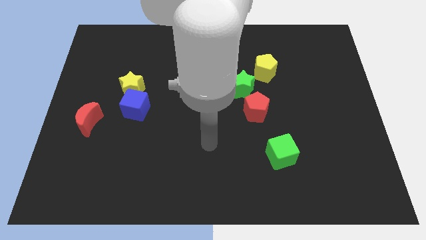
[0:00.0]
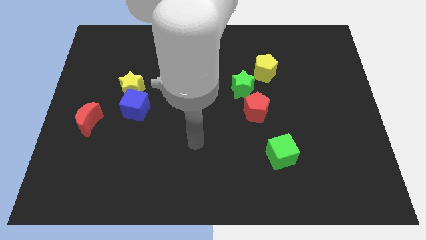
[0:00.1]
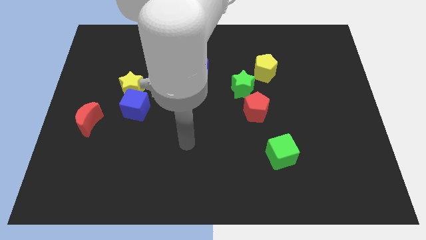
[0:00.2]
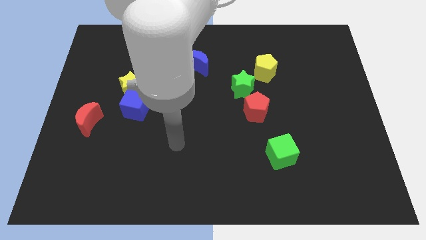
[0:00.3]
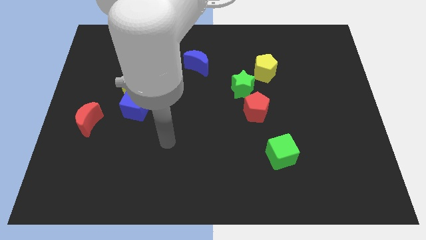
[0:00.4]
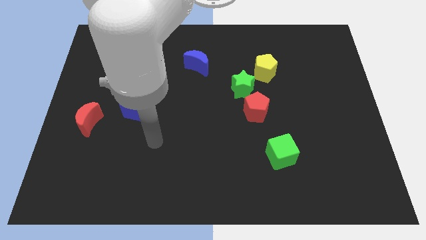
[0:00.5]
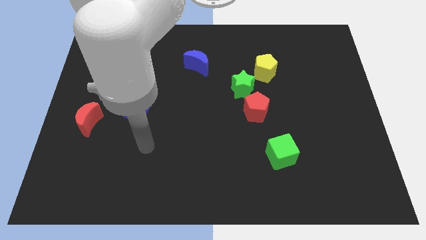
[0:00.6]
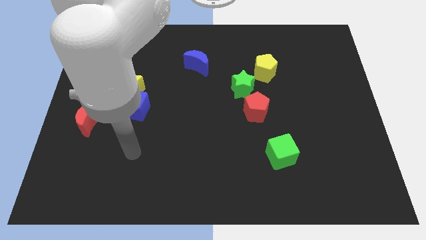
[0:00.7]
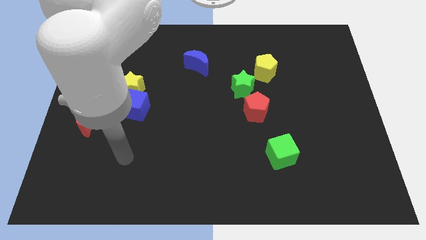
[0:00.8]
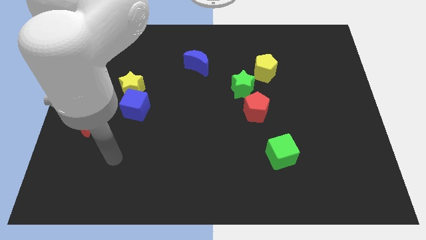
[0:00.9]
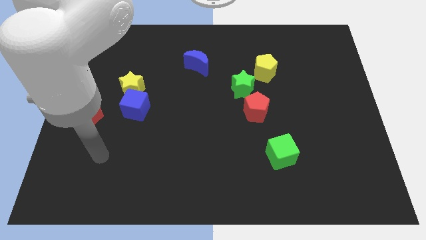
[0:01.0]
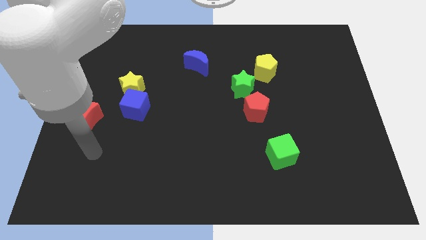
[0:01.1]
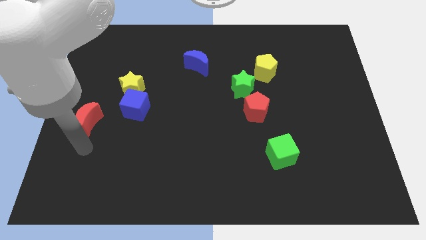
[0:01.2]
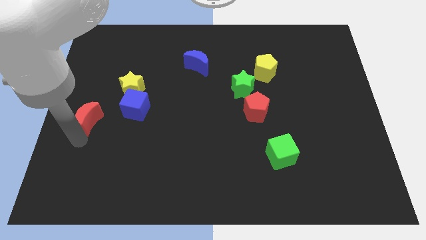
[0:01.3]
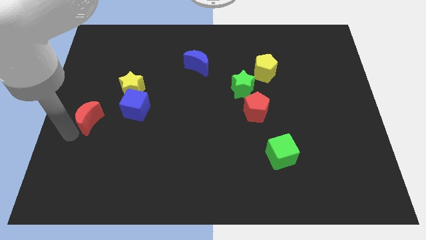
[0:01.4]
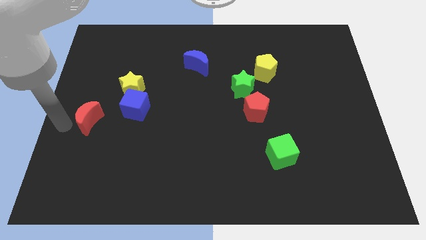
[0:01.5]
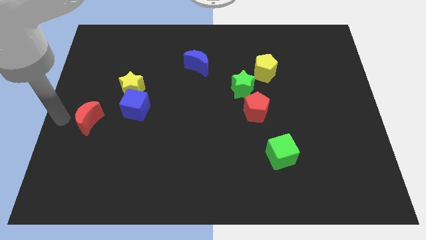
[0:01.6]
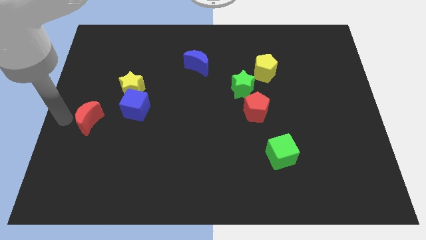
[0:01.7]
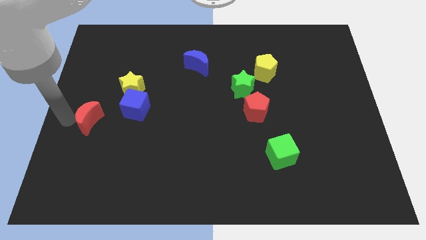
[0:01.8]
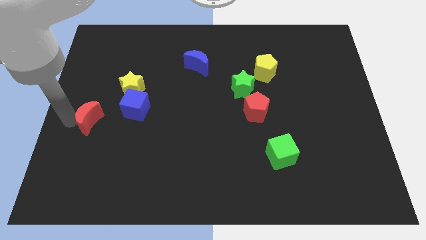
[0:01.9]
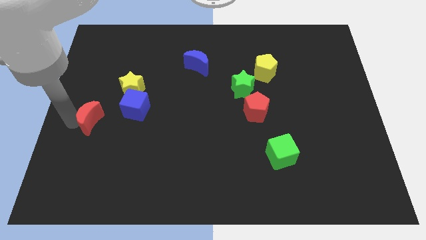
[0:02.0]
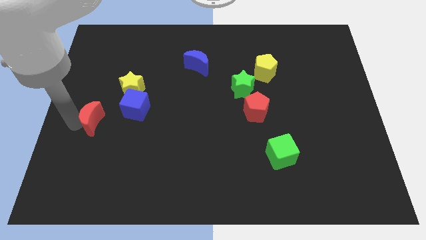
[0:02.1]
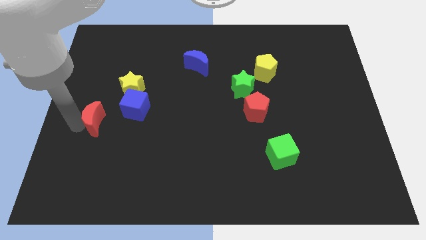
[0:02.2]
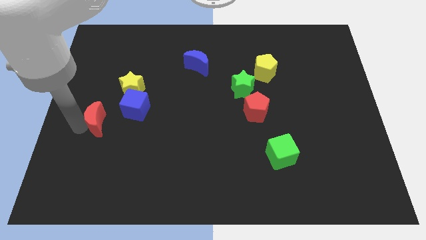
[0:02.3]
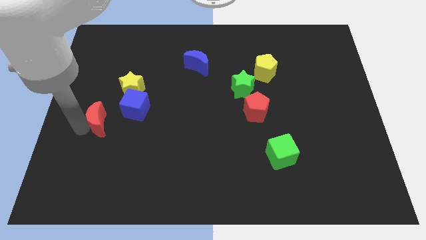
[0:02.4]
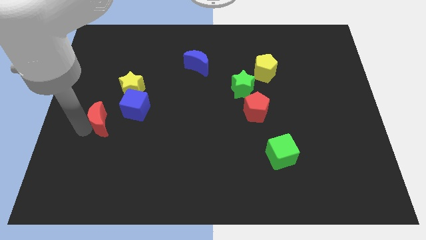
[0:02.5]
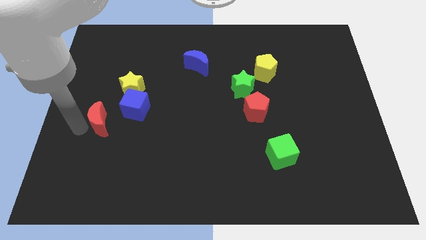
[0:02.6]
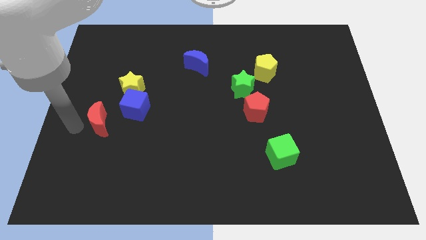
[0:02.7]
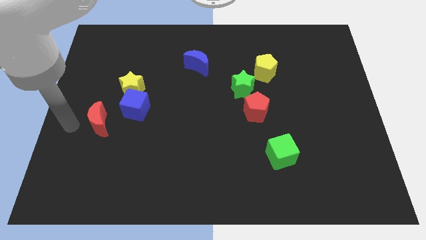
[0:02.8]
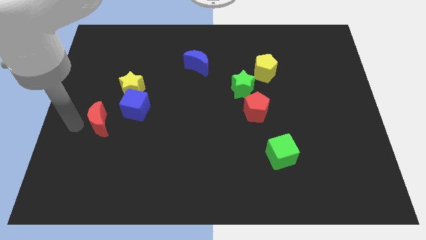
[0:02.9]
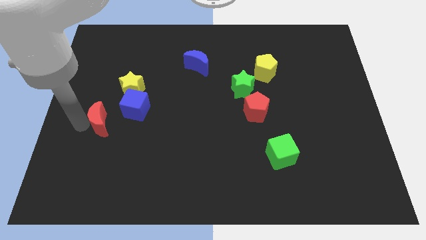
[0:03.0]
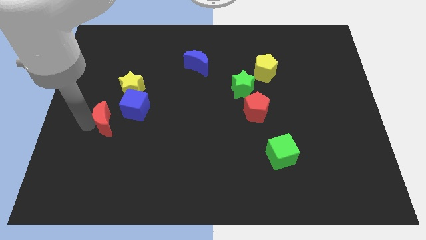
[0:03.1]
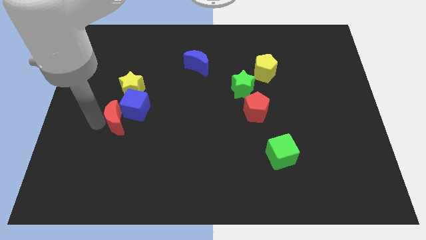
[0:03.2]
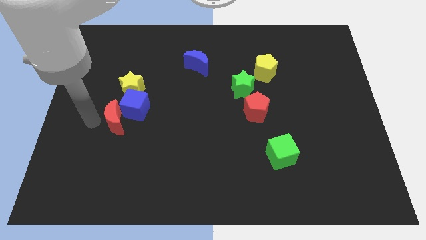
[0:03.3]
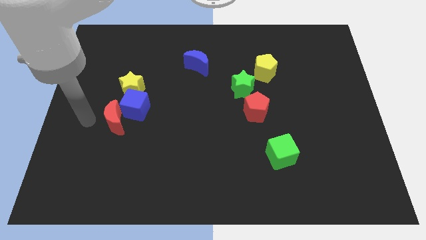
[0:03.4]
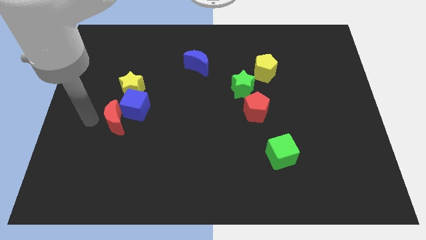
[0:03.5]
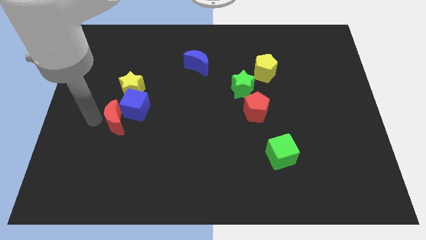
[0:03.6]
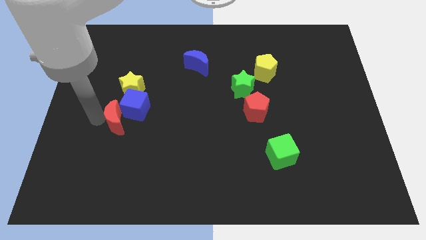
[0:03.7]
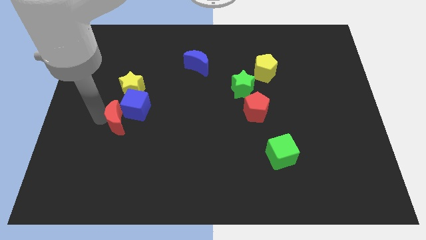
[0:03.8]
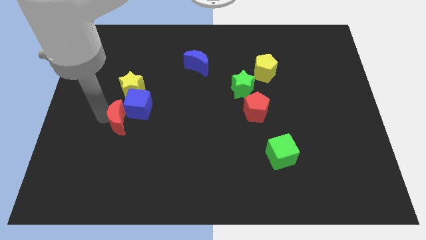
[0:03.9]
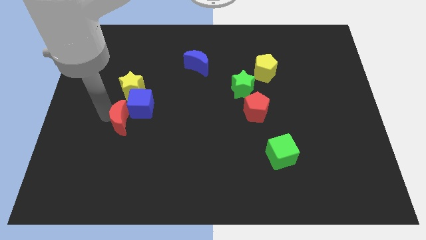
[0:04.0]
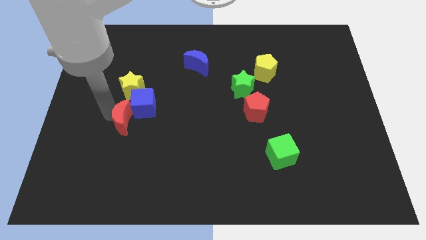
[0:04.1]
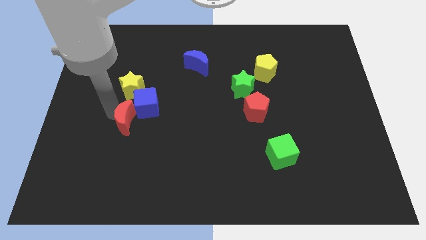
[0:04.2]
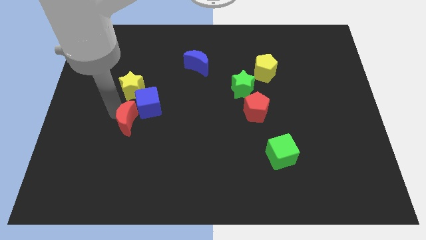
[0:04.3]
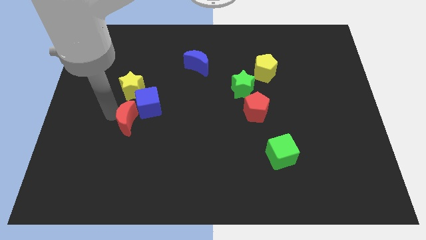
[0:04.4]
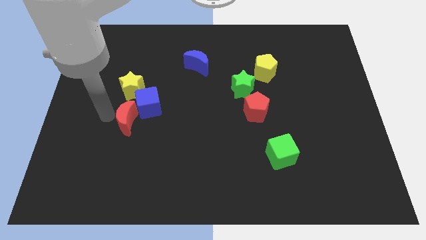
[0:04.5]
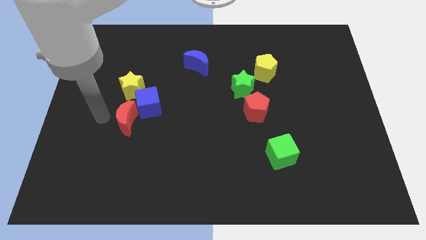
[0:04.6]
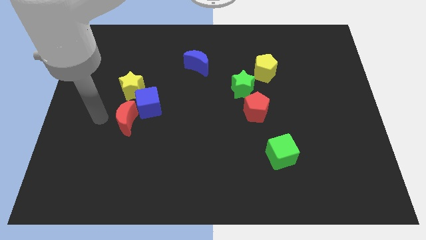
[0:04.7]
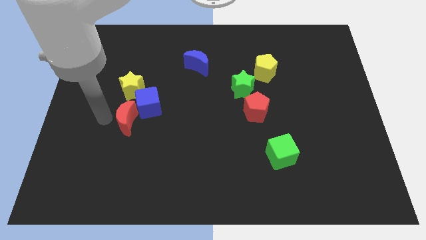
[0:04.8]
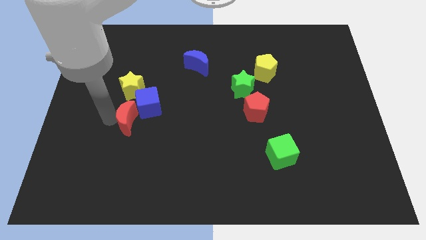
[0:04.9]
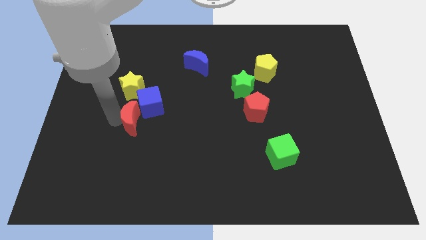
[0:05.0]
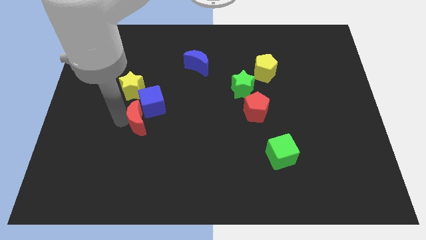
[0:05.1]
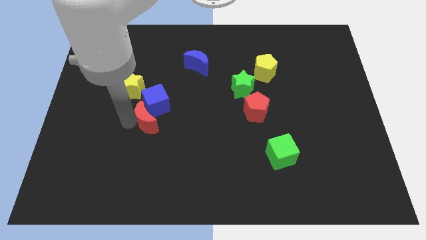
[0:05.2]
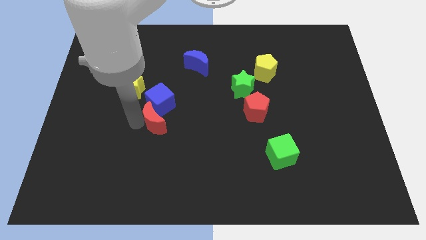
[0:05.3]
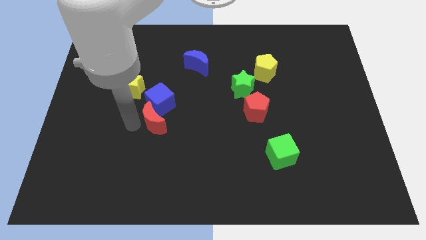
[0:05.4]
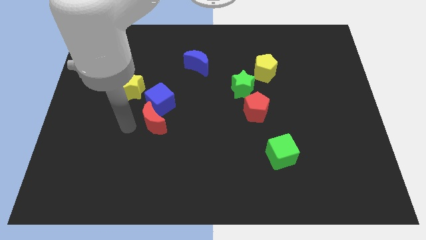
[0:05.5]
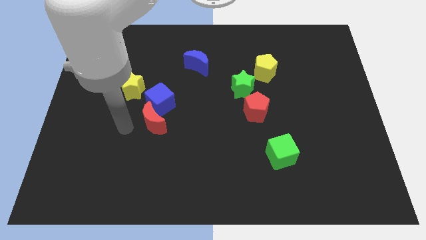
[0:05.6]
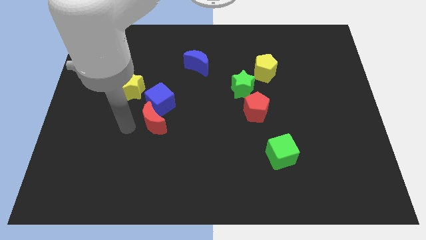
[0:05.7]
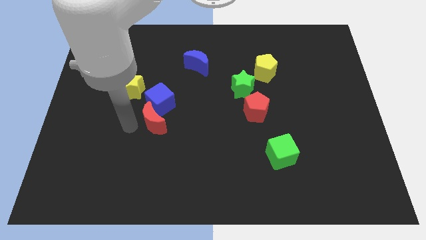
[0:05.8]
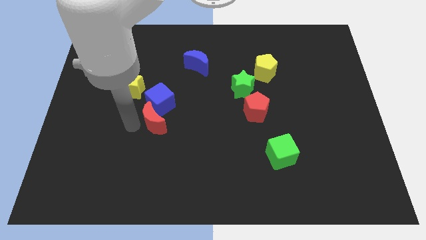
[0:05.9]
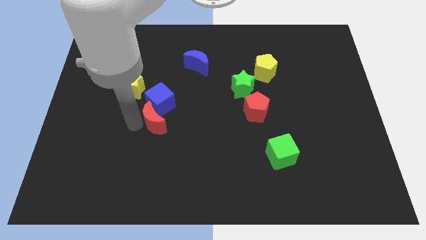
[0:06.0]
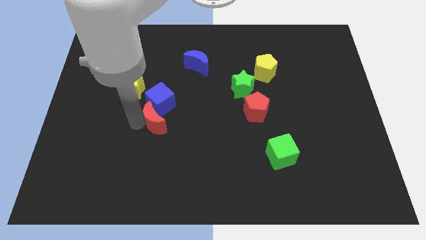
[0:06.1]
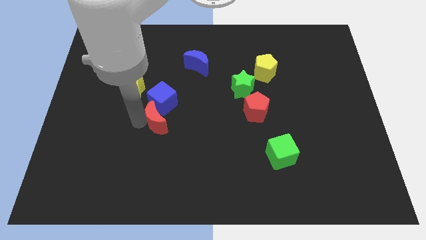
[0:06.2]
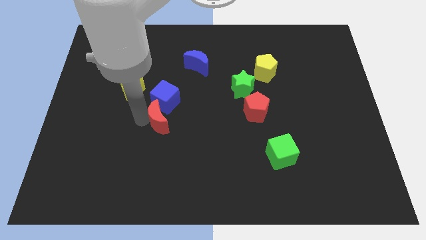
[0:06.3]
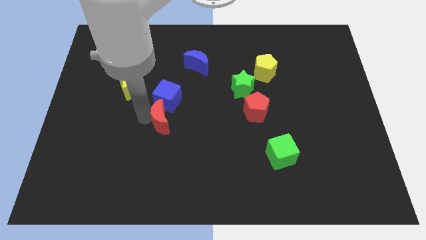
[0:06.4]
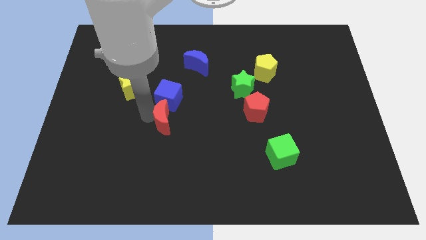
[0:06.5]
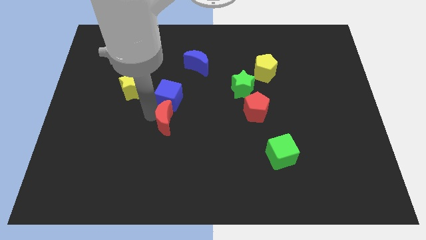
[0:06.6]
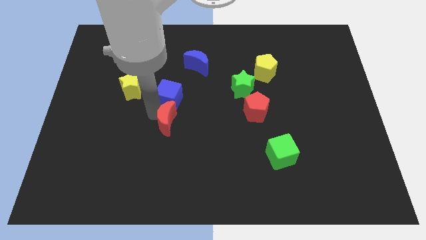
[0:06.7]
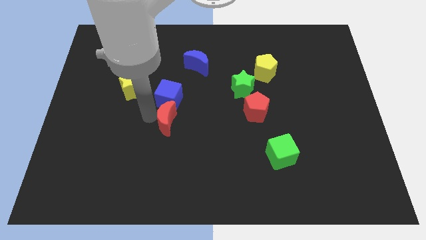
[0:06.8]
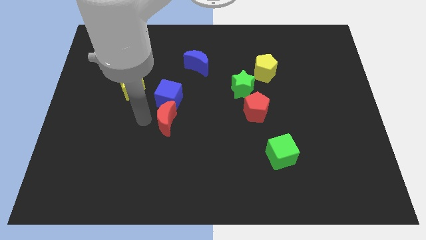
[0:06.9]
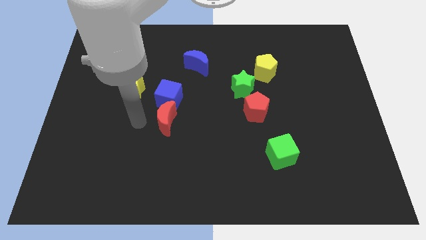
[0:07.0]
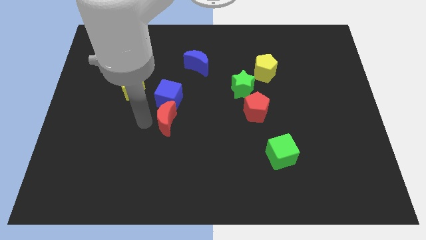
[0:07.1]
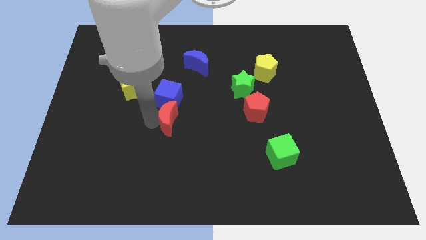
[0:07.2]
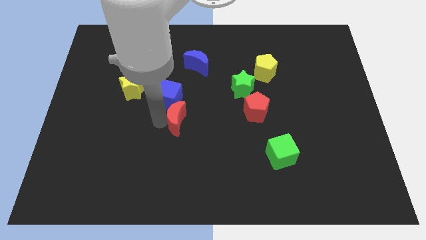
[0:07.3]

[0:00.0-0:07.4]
slide the red moon to the right

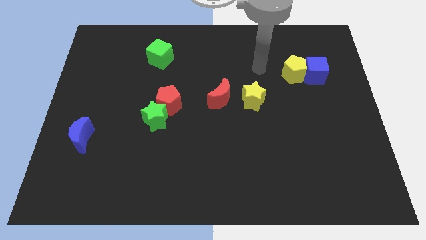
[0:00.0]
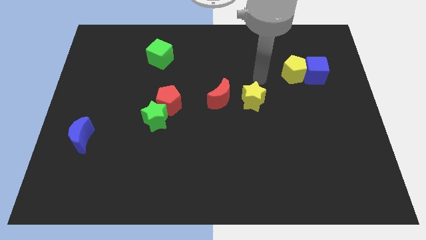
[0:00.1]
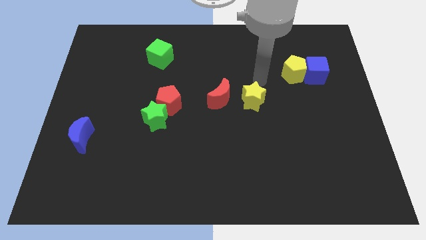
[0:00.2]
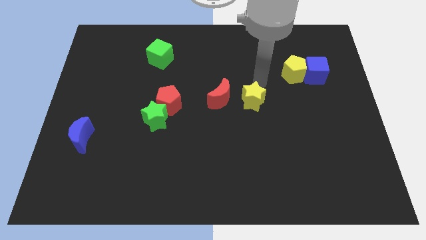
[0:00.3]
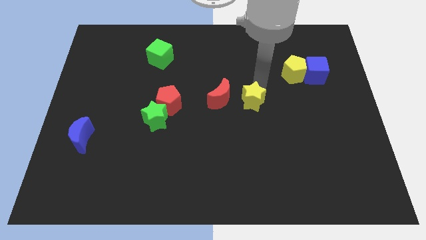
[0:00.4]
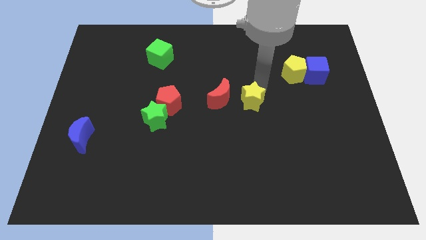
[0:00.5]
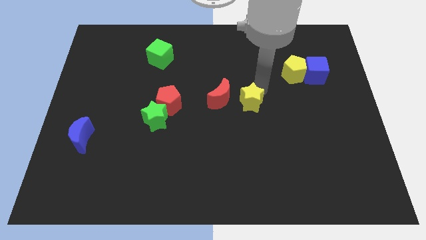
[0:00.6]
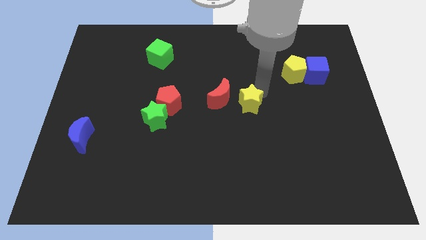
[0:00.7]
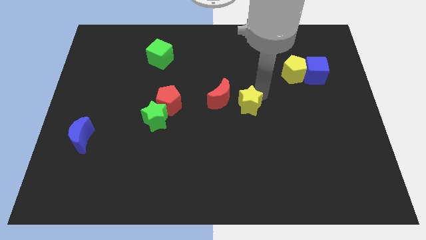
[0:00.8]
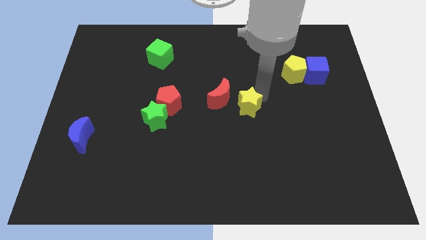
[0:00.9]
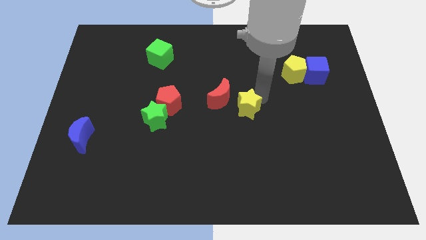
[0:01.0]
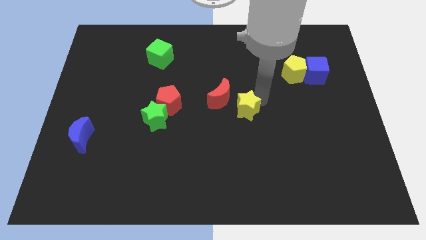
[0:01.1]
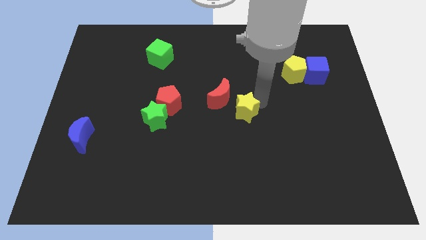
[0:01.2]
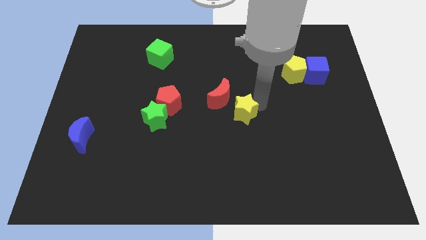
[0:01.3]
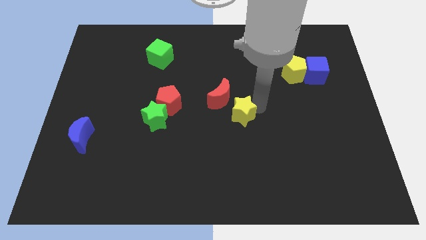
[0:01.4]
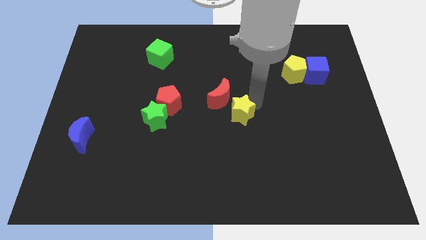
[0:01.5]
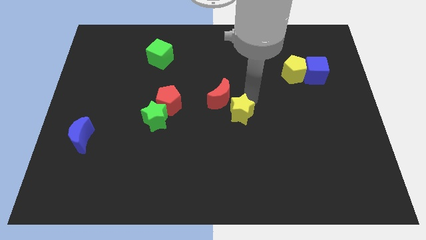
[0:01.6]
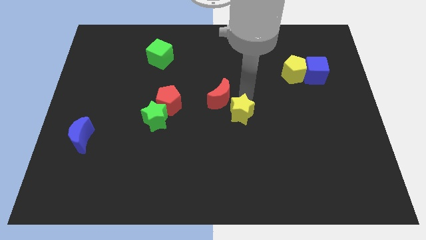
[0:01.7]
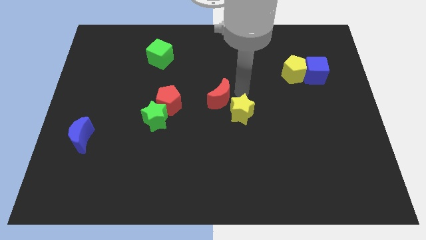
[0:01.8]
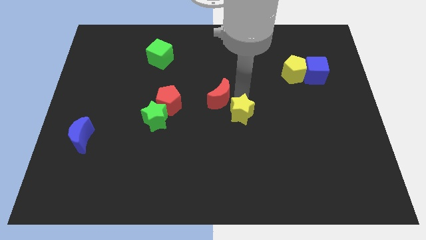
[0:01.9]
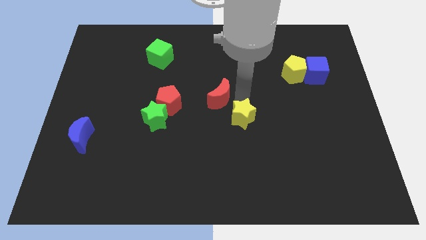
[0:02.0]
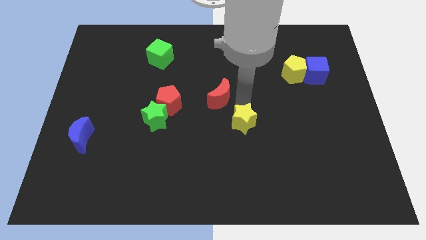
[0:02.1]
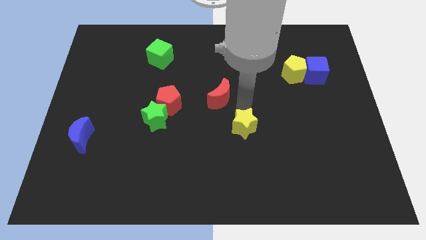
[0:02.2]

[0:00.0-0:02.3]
slightly push the yellow star downwards
